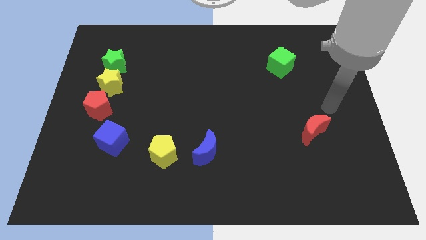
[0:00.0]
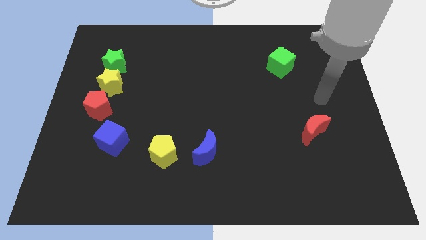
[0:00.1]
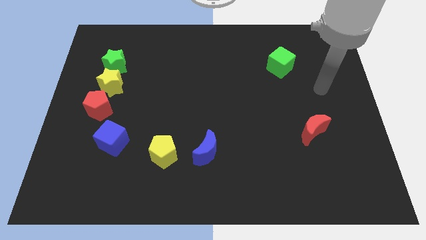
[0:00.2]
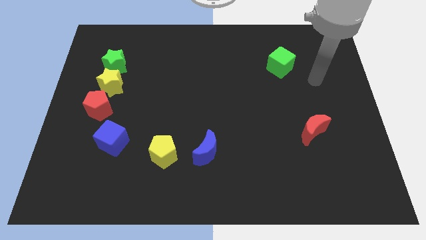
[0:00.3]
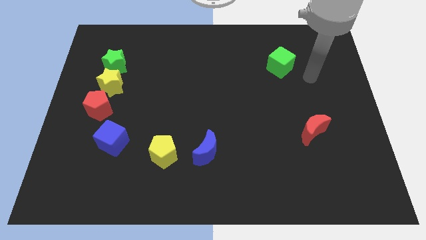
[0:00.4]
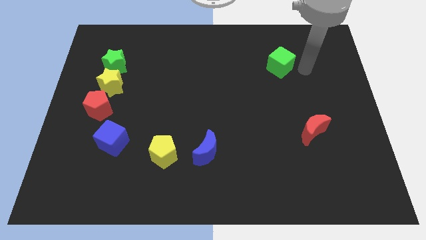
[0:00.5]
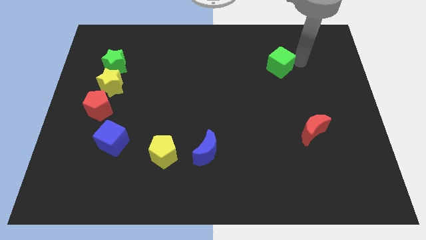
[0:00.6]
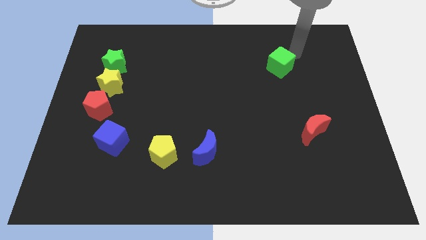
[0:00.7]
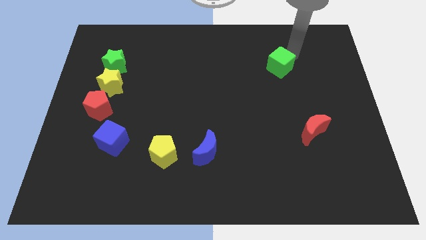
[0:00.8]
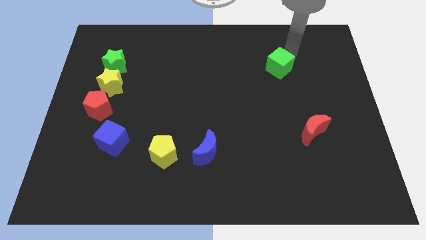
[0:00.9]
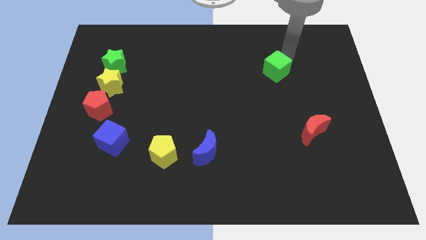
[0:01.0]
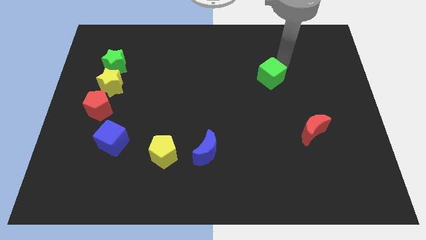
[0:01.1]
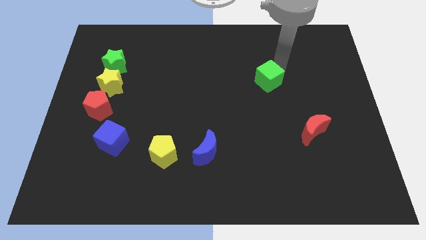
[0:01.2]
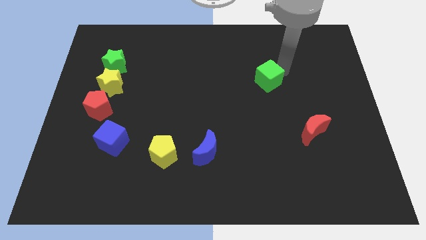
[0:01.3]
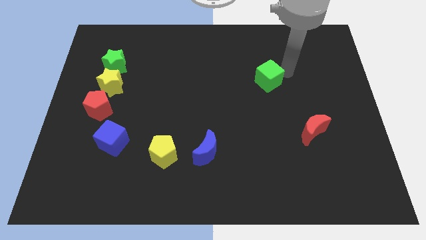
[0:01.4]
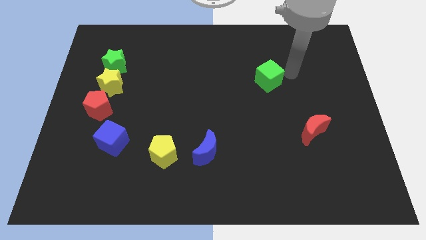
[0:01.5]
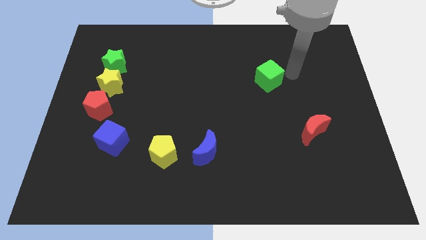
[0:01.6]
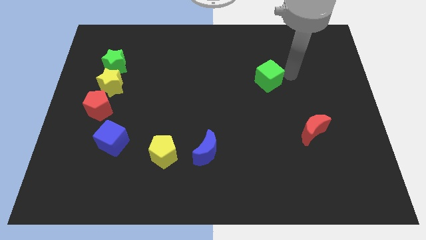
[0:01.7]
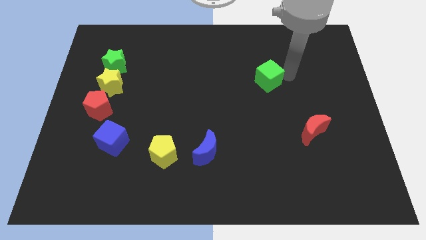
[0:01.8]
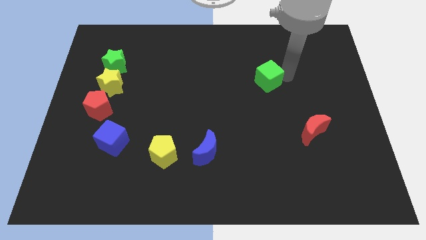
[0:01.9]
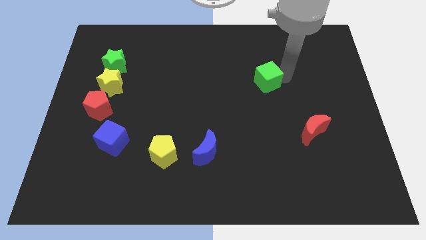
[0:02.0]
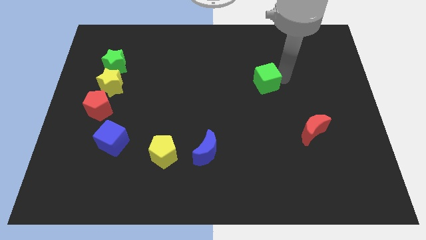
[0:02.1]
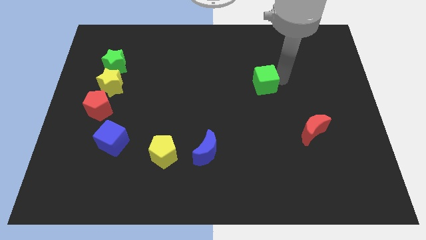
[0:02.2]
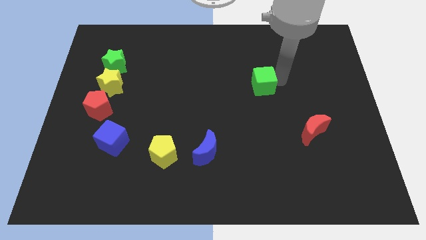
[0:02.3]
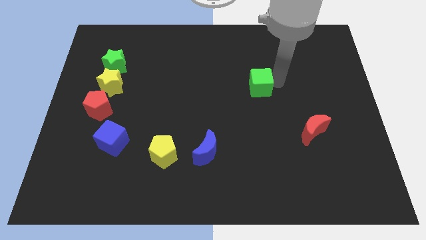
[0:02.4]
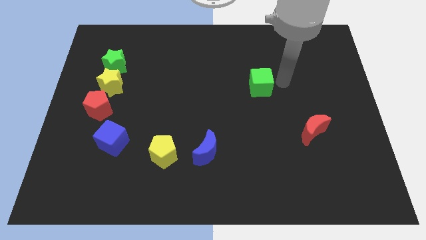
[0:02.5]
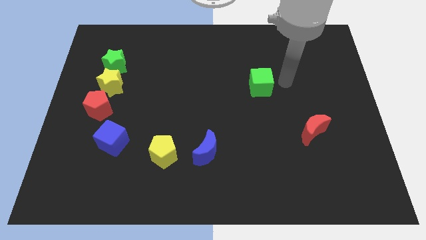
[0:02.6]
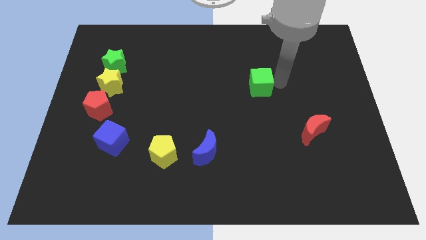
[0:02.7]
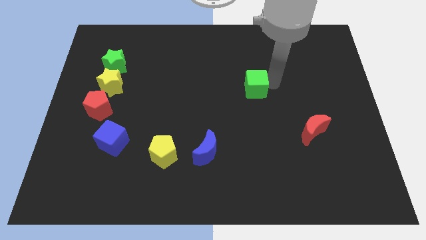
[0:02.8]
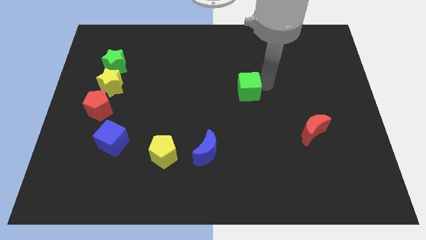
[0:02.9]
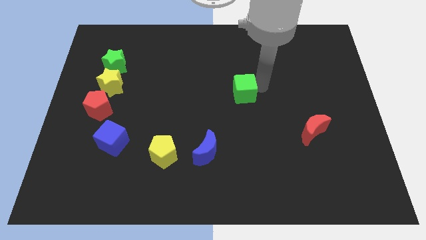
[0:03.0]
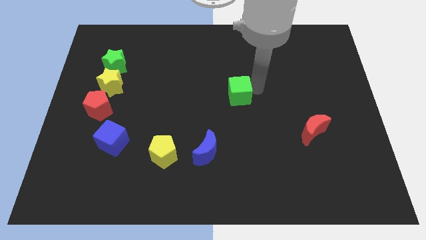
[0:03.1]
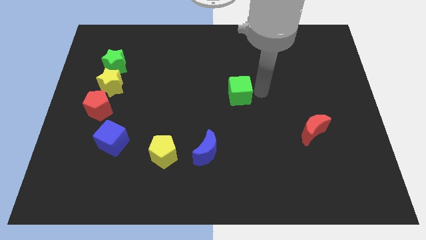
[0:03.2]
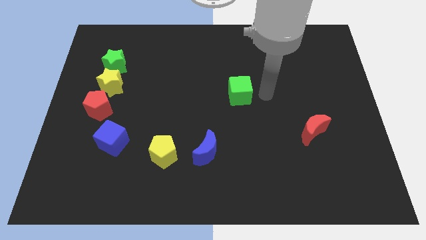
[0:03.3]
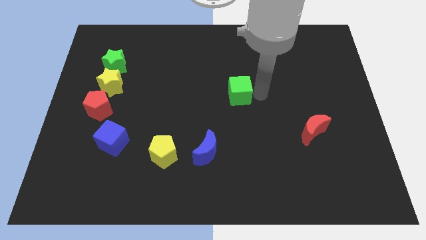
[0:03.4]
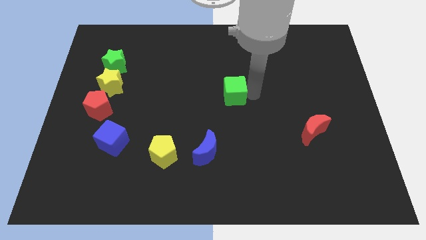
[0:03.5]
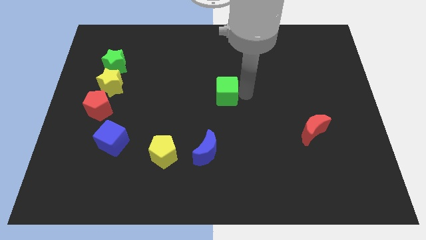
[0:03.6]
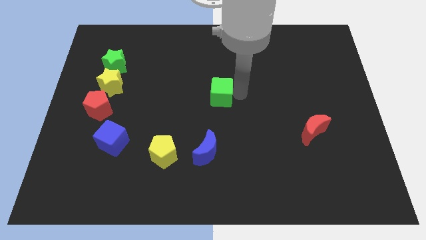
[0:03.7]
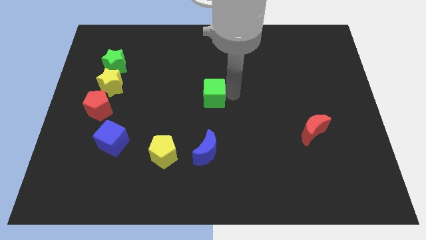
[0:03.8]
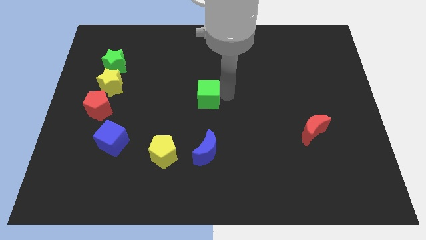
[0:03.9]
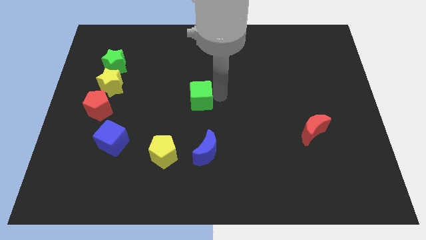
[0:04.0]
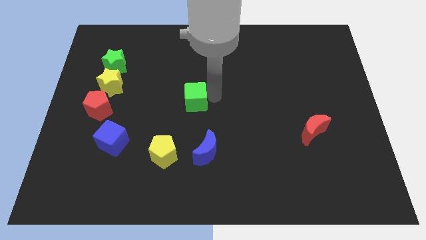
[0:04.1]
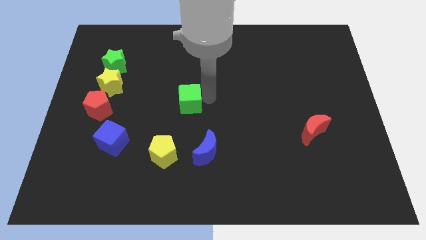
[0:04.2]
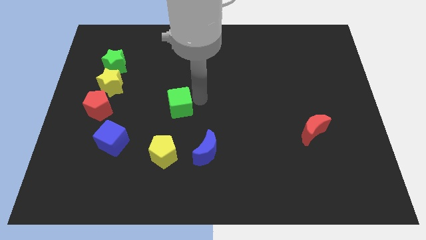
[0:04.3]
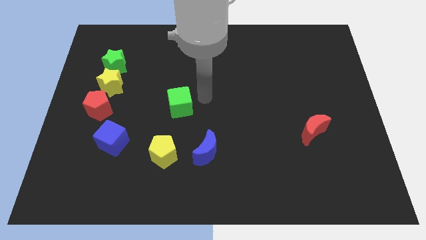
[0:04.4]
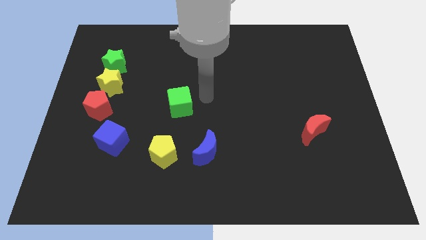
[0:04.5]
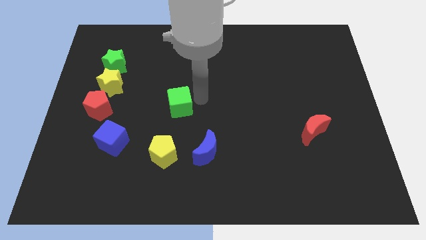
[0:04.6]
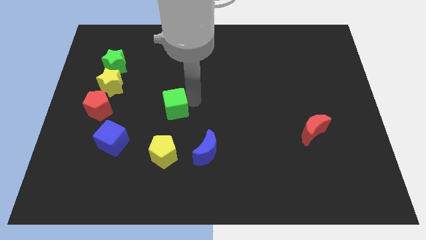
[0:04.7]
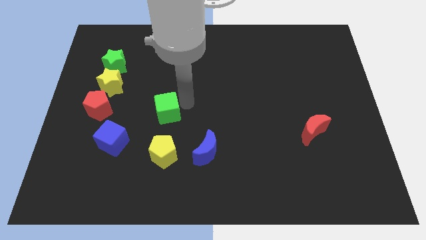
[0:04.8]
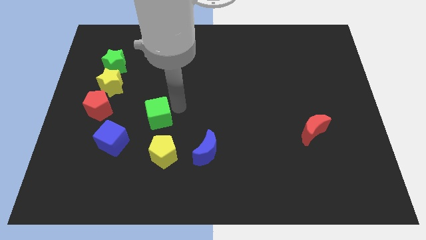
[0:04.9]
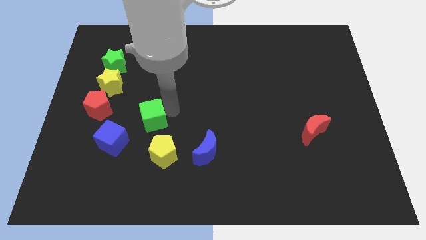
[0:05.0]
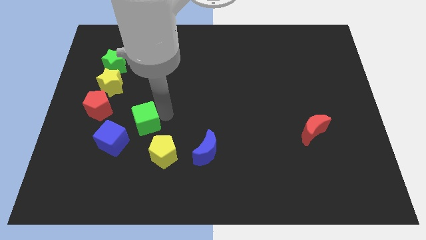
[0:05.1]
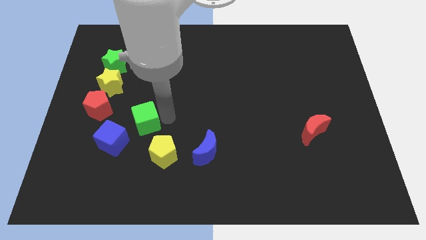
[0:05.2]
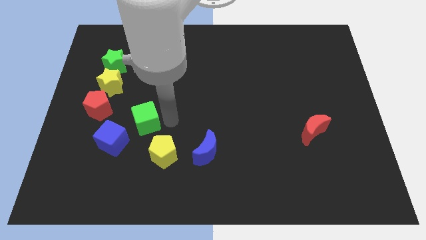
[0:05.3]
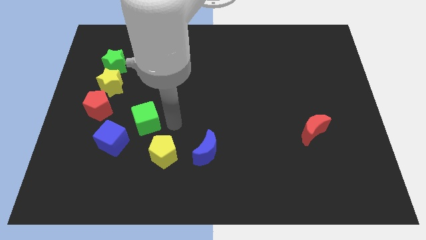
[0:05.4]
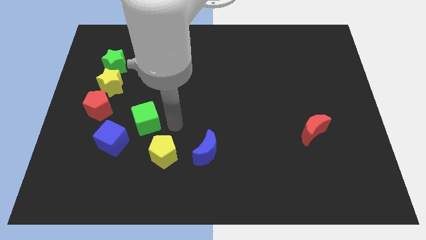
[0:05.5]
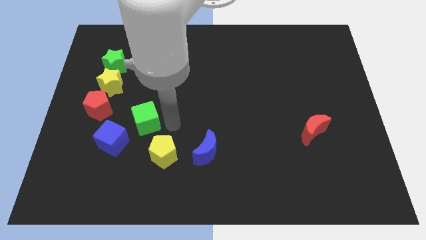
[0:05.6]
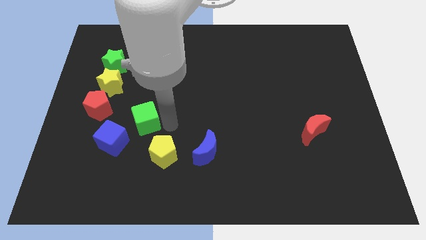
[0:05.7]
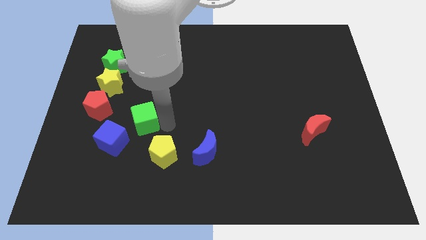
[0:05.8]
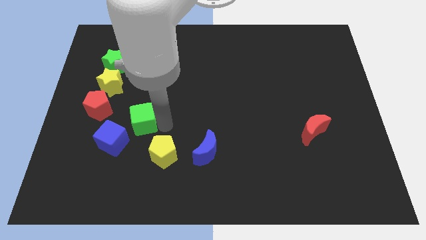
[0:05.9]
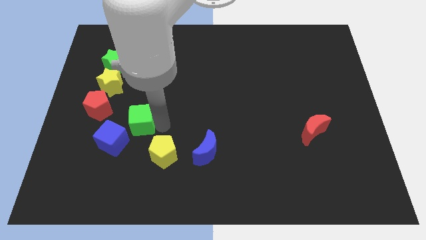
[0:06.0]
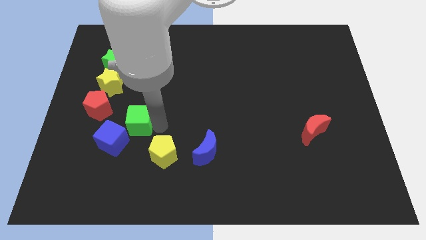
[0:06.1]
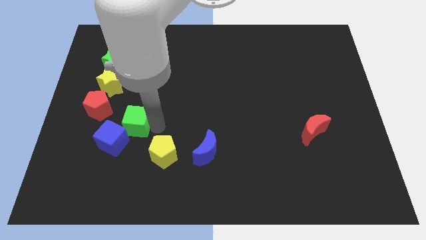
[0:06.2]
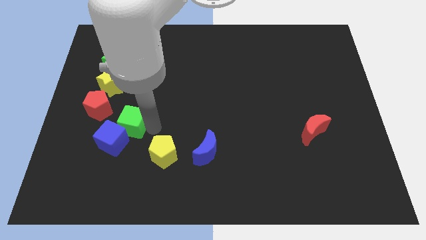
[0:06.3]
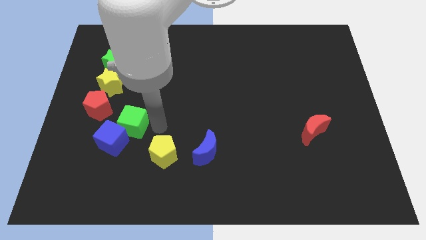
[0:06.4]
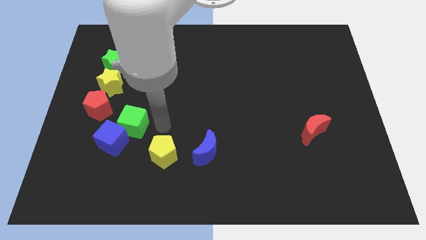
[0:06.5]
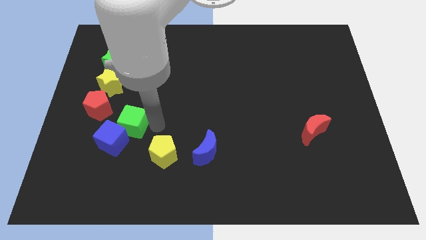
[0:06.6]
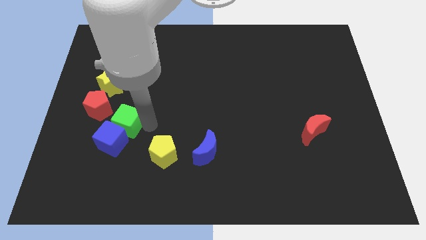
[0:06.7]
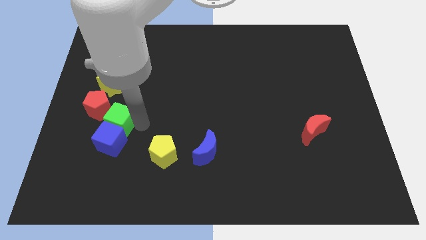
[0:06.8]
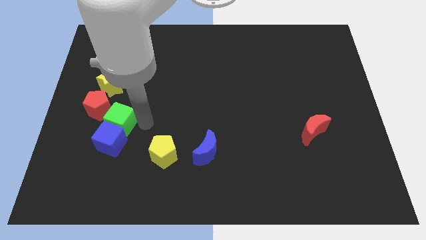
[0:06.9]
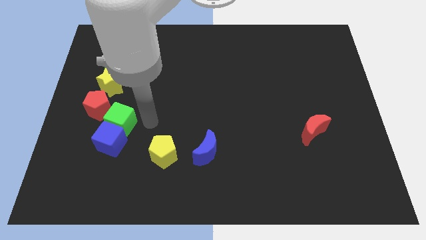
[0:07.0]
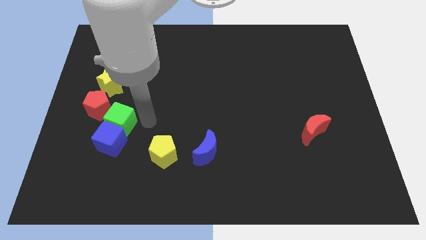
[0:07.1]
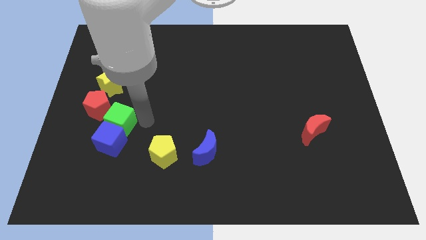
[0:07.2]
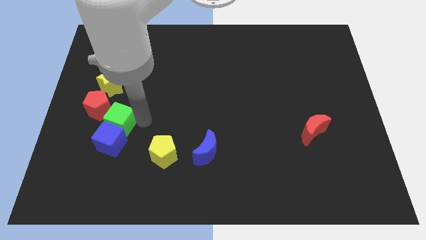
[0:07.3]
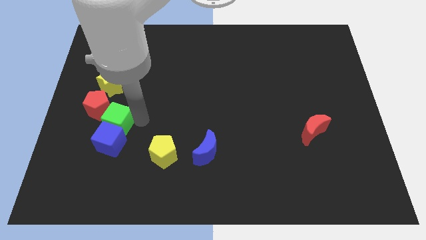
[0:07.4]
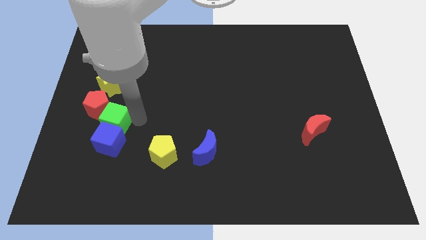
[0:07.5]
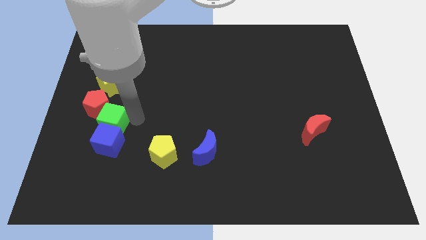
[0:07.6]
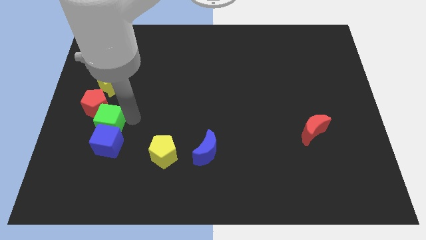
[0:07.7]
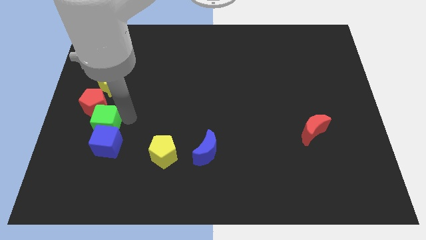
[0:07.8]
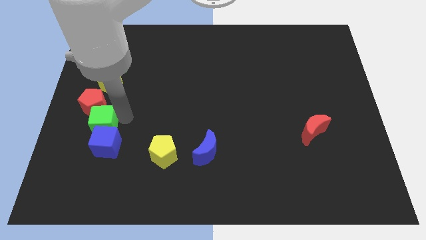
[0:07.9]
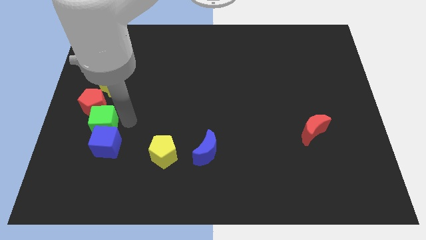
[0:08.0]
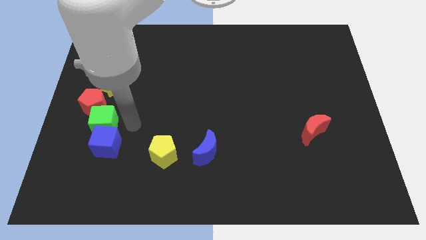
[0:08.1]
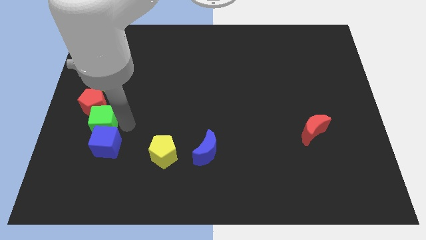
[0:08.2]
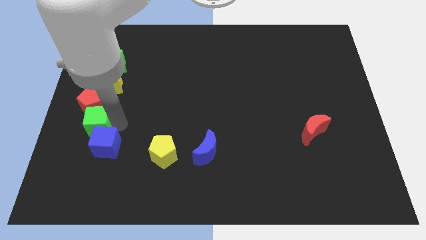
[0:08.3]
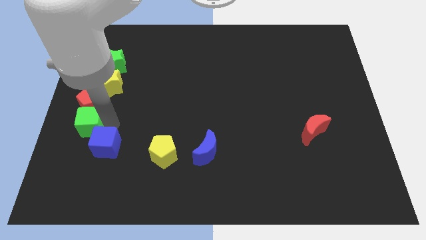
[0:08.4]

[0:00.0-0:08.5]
slide the green cube to the left side of the board
